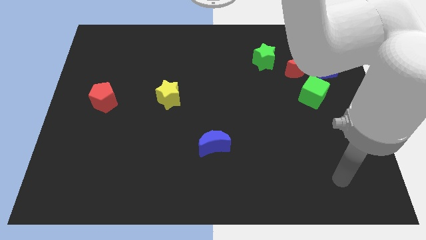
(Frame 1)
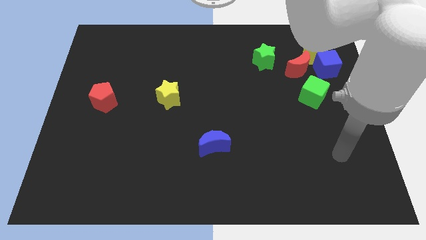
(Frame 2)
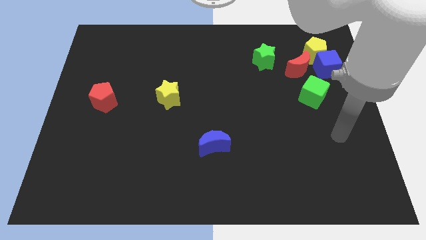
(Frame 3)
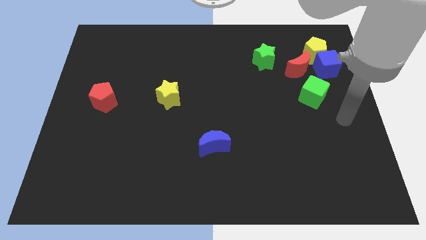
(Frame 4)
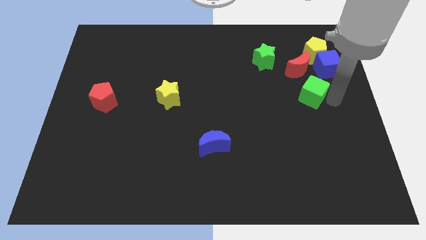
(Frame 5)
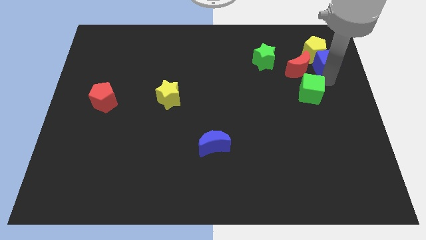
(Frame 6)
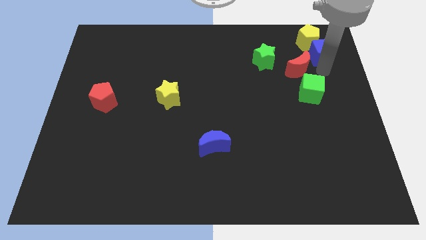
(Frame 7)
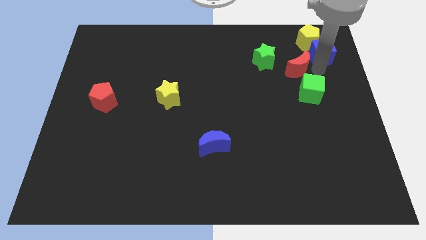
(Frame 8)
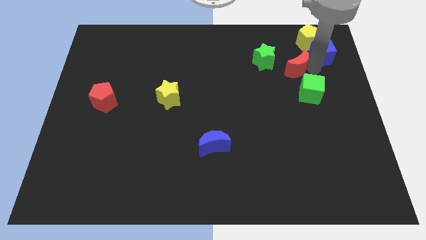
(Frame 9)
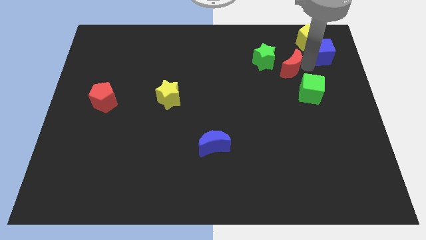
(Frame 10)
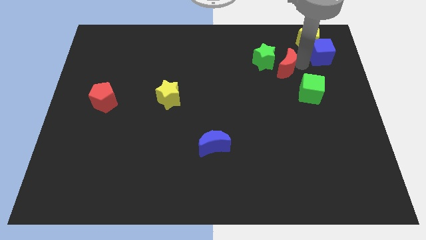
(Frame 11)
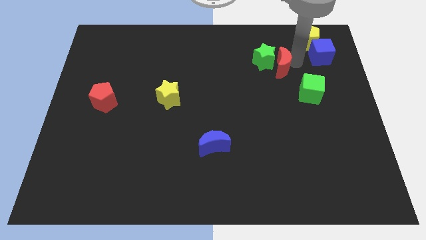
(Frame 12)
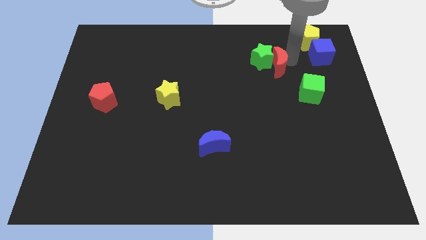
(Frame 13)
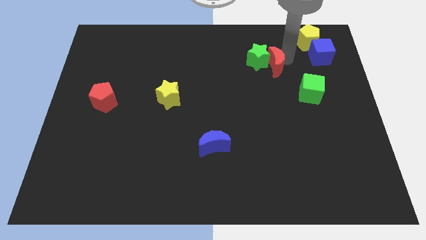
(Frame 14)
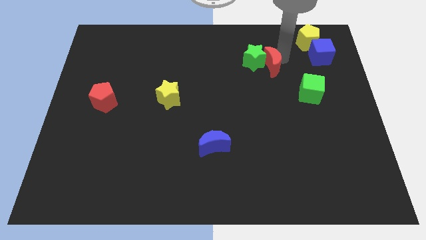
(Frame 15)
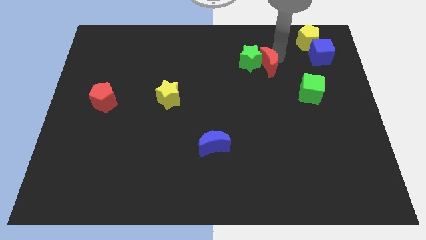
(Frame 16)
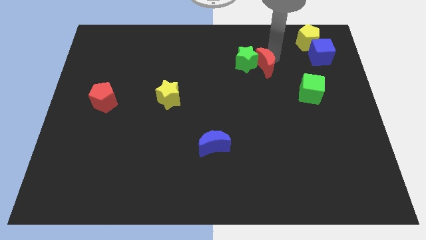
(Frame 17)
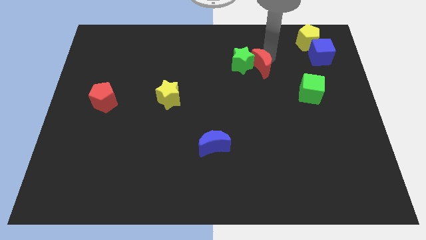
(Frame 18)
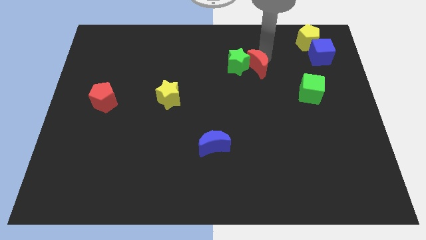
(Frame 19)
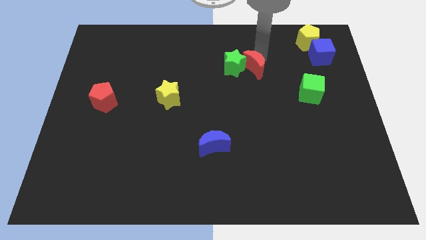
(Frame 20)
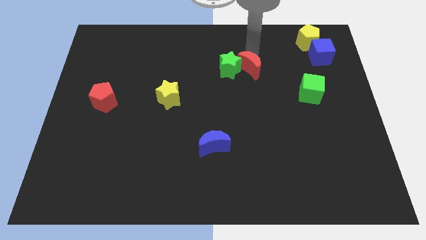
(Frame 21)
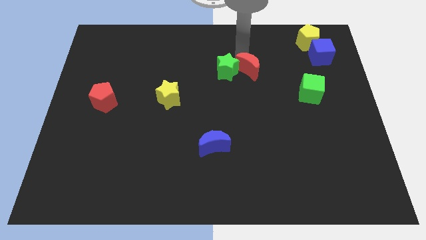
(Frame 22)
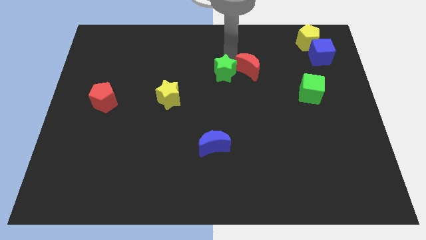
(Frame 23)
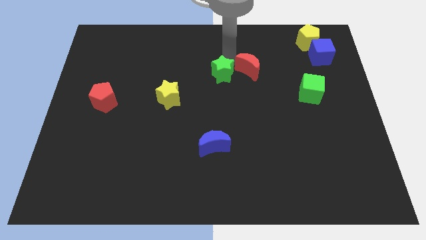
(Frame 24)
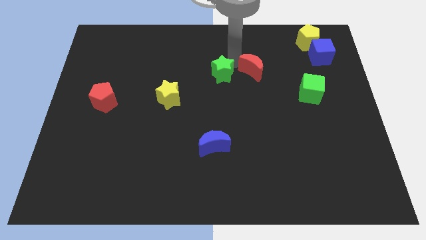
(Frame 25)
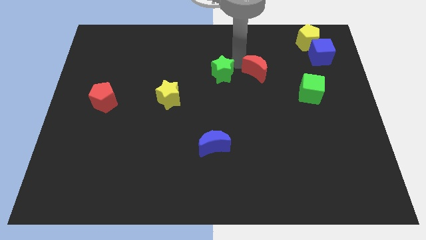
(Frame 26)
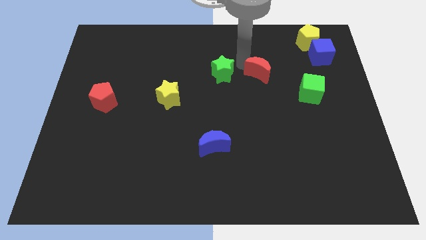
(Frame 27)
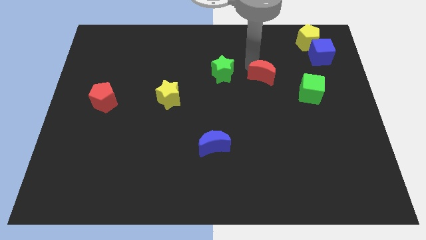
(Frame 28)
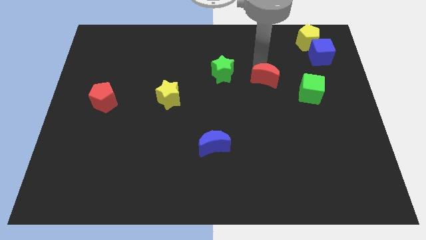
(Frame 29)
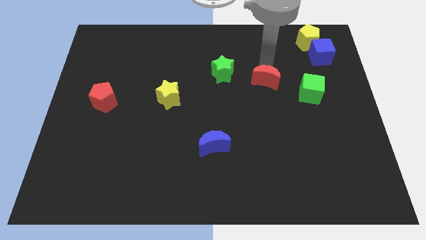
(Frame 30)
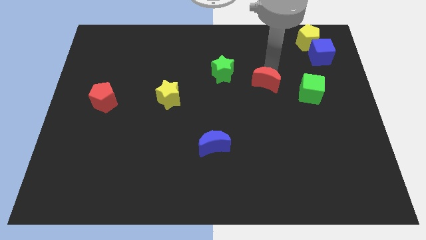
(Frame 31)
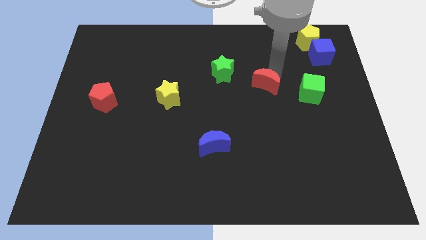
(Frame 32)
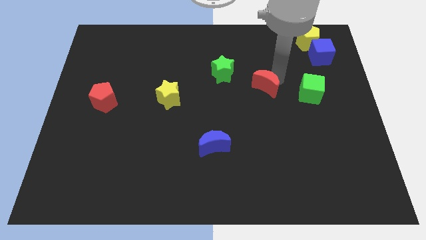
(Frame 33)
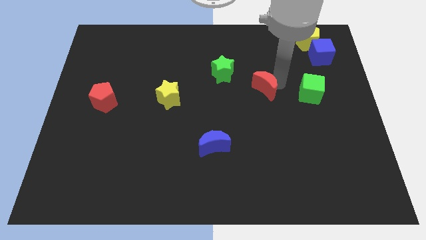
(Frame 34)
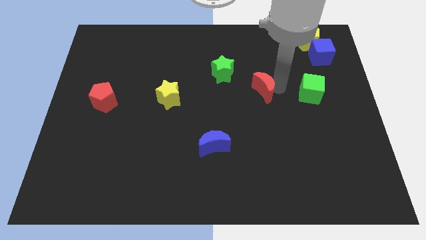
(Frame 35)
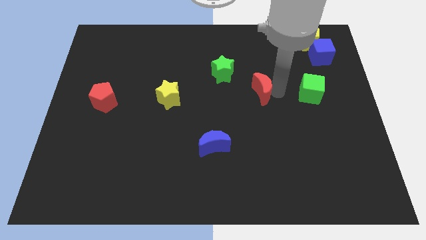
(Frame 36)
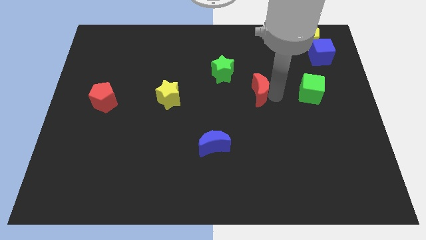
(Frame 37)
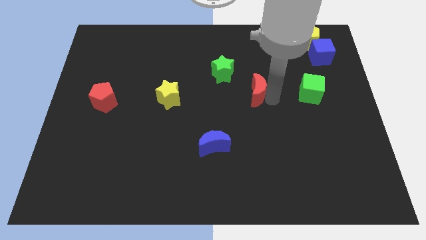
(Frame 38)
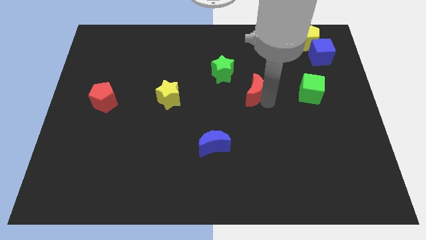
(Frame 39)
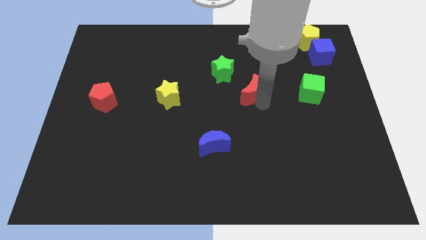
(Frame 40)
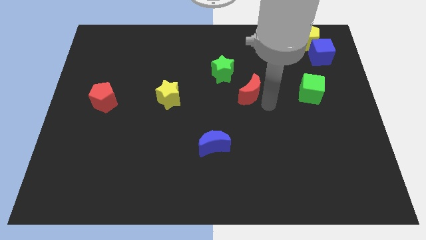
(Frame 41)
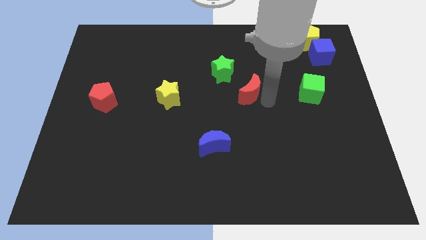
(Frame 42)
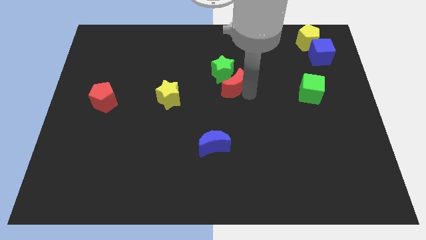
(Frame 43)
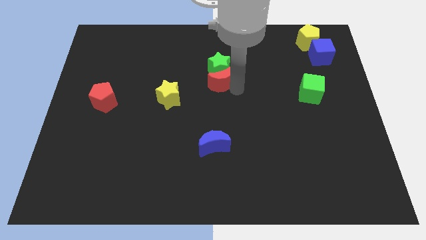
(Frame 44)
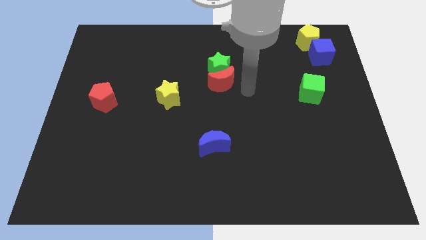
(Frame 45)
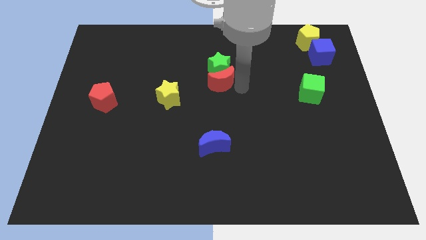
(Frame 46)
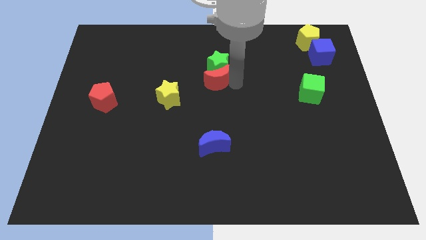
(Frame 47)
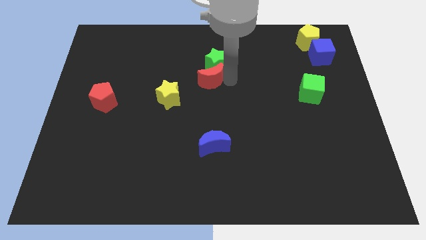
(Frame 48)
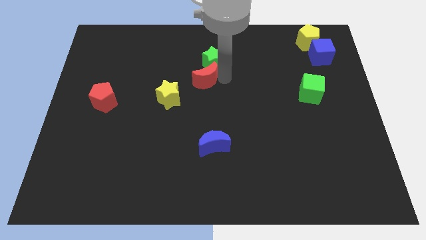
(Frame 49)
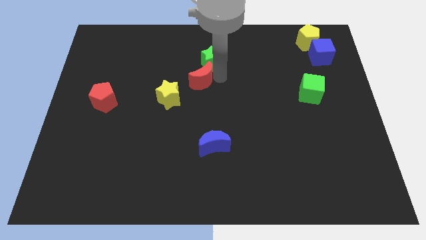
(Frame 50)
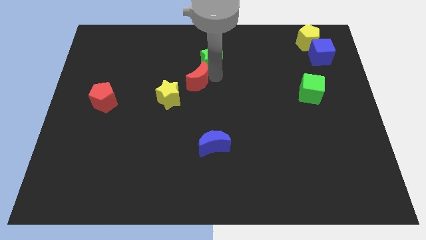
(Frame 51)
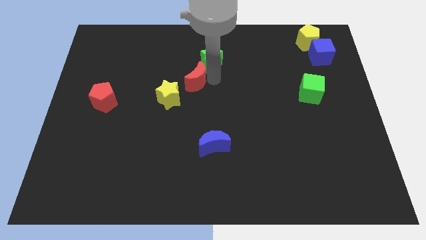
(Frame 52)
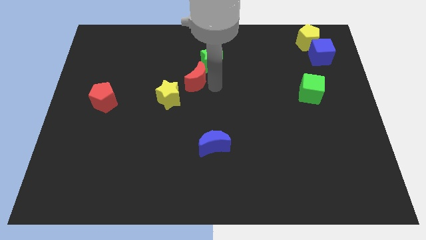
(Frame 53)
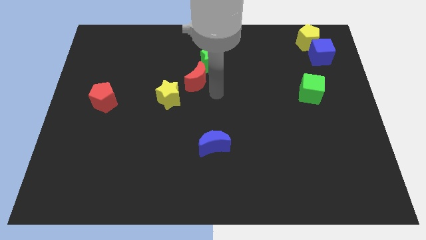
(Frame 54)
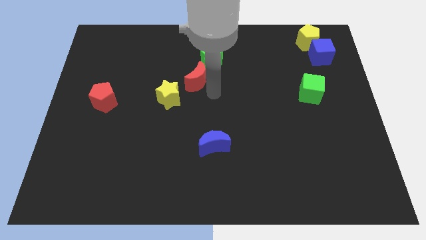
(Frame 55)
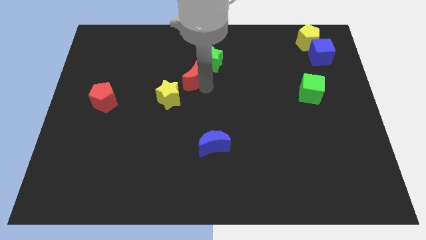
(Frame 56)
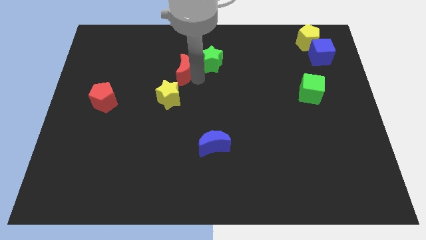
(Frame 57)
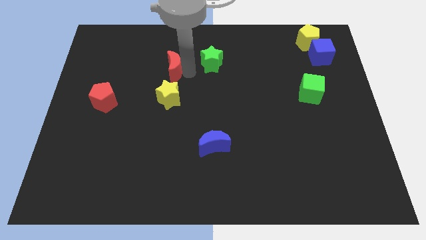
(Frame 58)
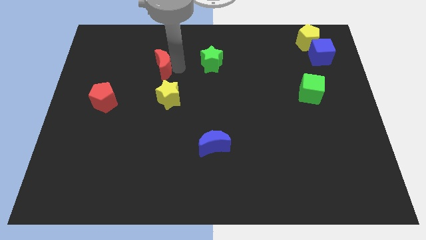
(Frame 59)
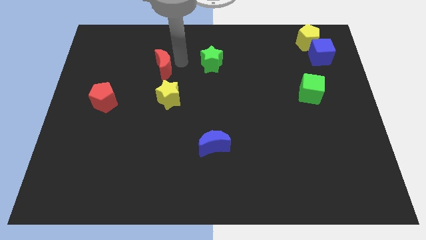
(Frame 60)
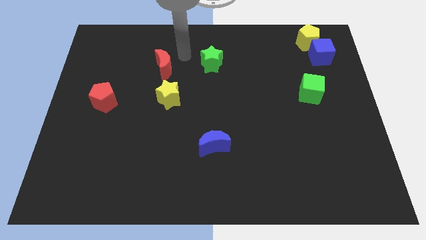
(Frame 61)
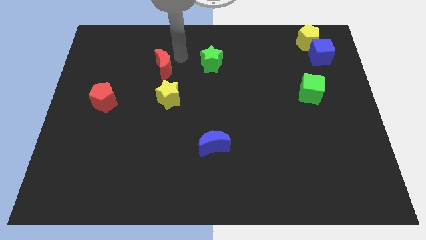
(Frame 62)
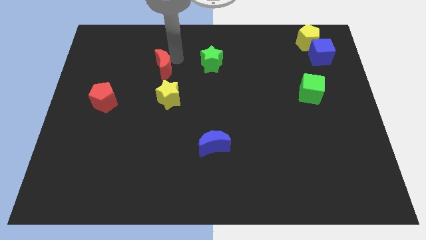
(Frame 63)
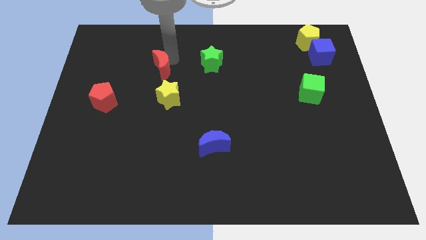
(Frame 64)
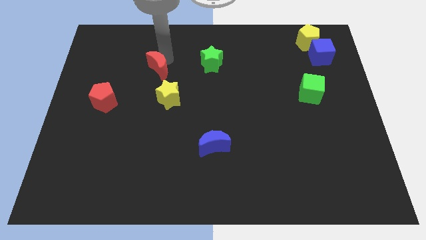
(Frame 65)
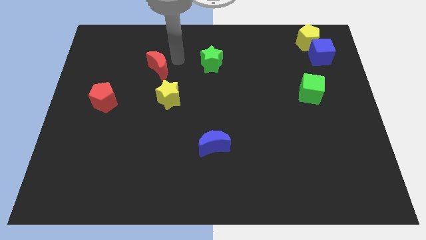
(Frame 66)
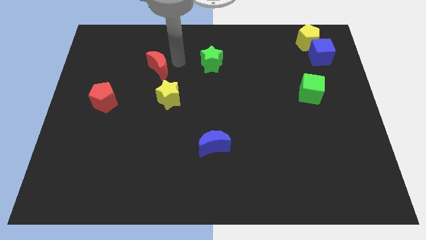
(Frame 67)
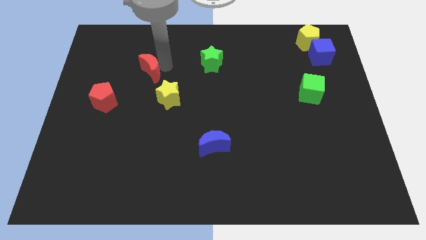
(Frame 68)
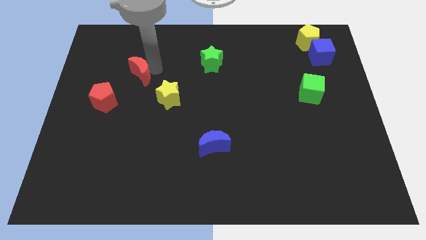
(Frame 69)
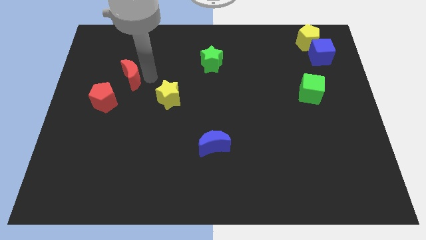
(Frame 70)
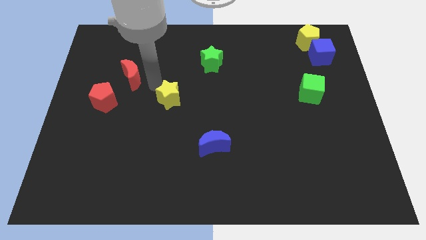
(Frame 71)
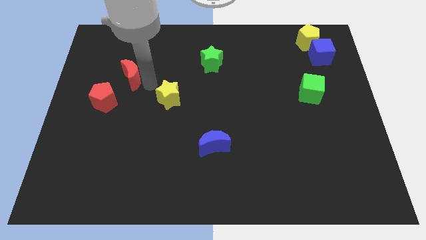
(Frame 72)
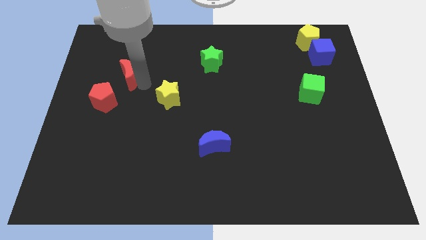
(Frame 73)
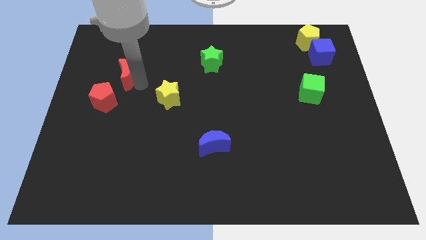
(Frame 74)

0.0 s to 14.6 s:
slide the red moon to the top side of the red pentagon
